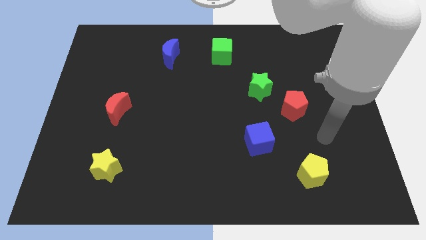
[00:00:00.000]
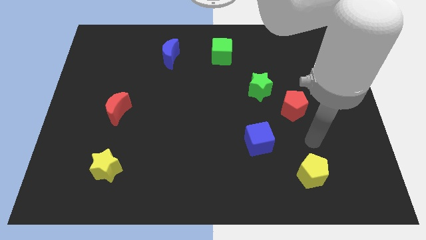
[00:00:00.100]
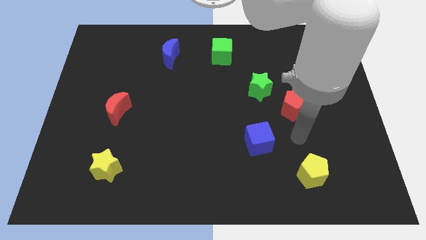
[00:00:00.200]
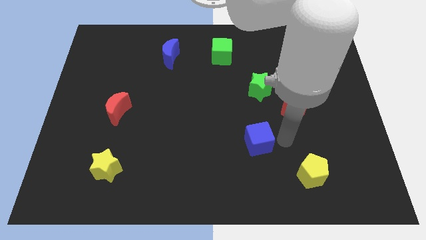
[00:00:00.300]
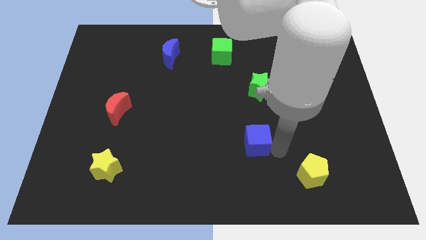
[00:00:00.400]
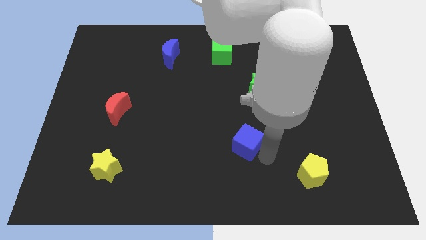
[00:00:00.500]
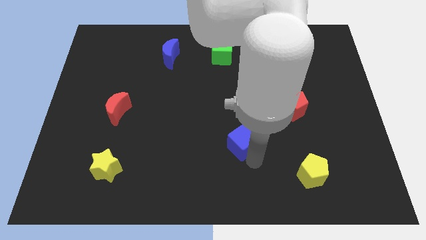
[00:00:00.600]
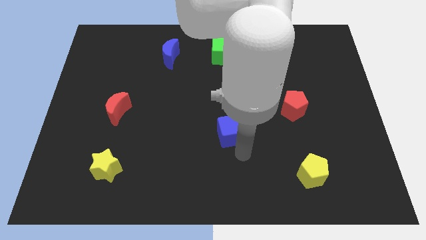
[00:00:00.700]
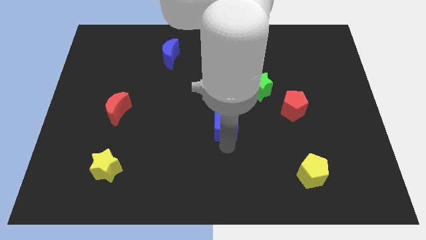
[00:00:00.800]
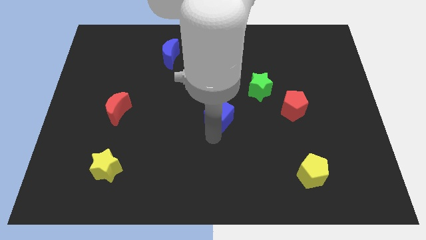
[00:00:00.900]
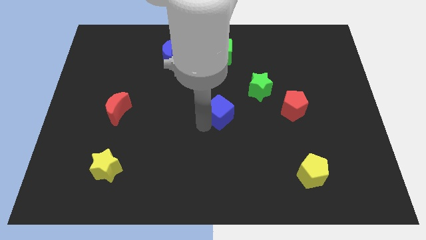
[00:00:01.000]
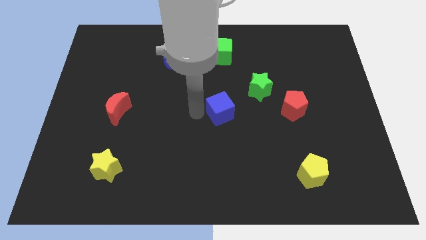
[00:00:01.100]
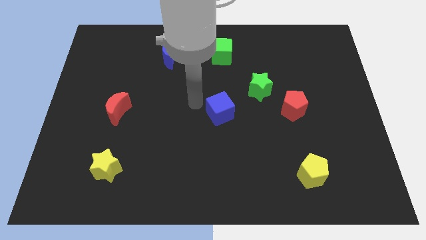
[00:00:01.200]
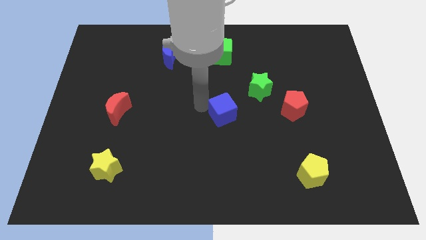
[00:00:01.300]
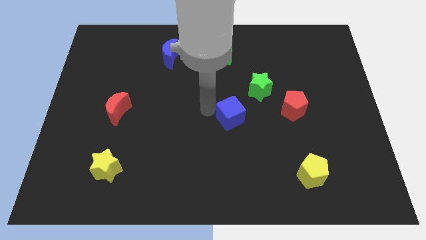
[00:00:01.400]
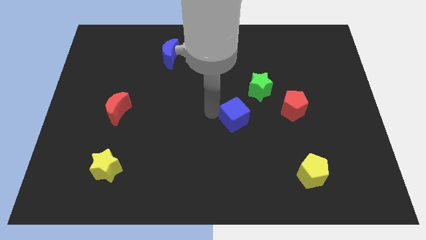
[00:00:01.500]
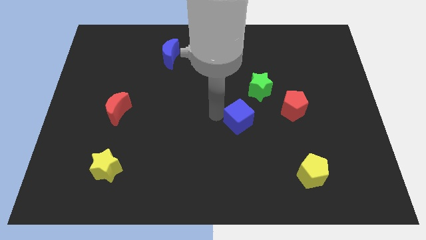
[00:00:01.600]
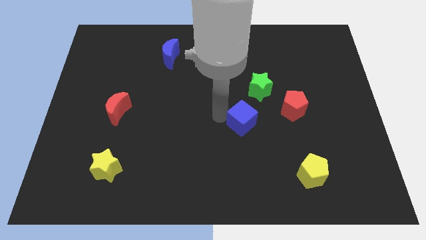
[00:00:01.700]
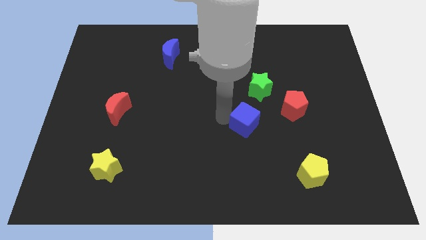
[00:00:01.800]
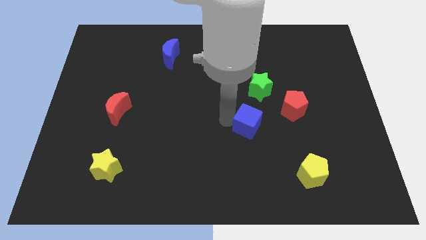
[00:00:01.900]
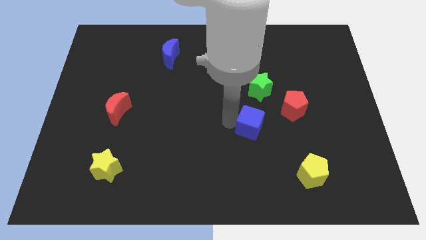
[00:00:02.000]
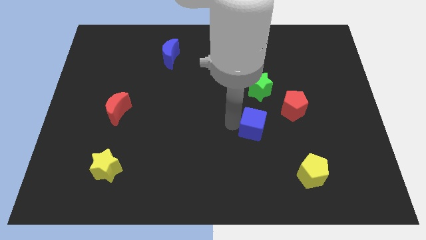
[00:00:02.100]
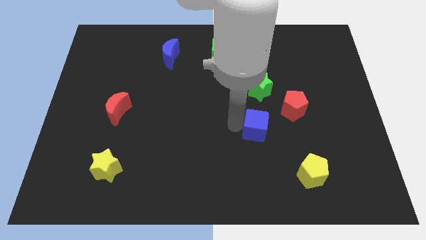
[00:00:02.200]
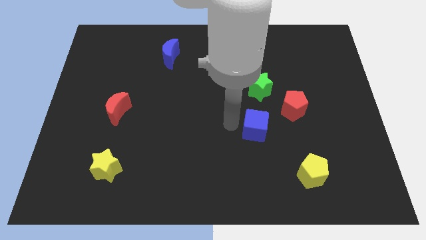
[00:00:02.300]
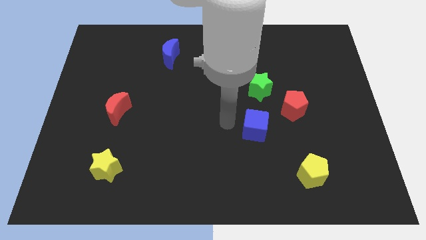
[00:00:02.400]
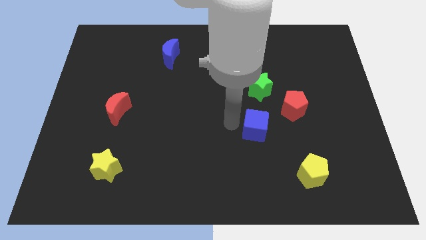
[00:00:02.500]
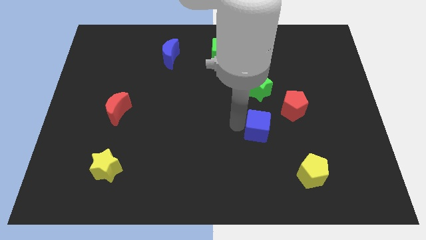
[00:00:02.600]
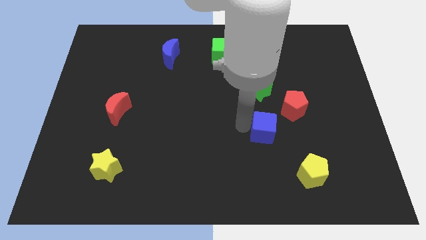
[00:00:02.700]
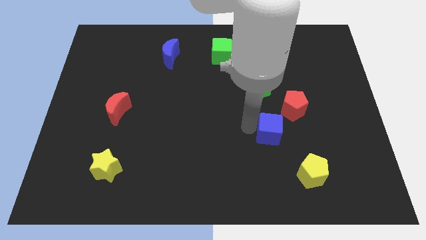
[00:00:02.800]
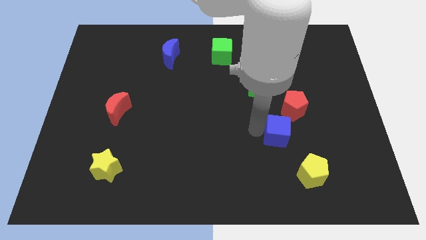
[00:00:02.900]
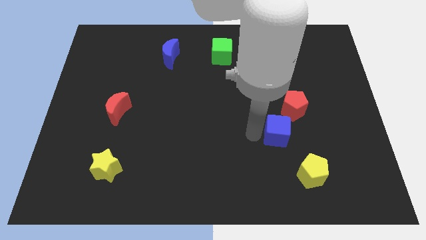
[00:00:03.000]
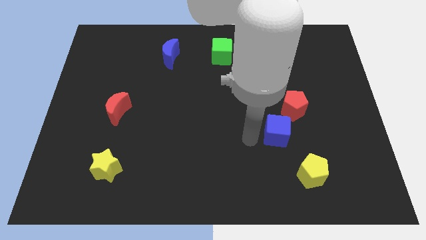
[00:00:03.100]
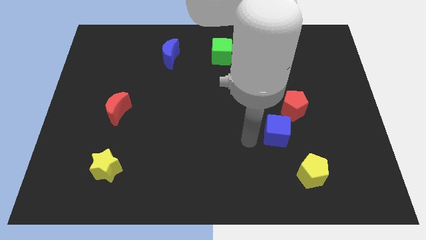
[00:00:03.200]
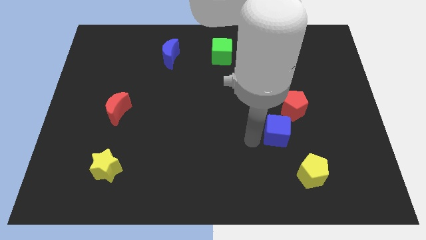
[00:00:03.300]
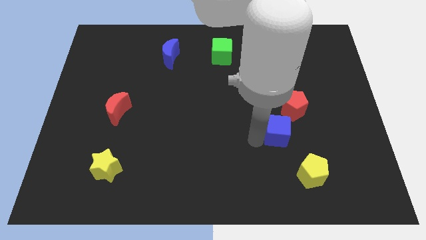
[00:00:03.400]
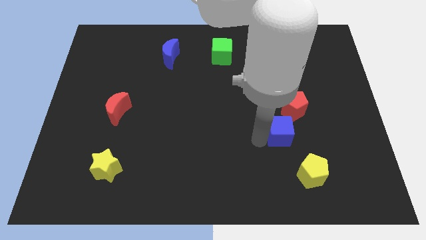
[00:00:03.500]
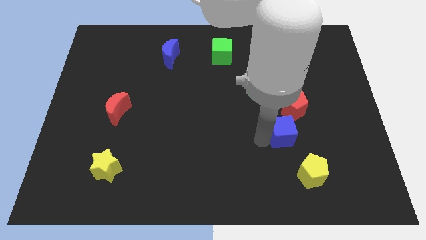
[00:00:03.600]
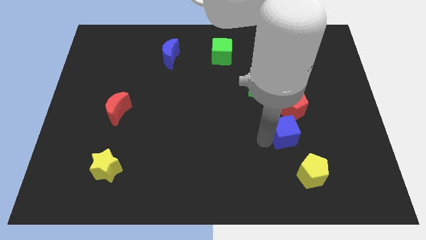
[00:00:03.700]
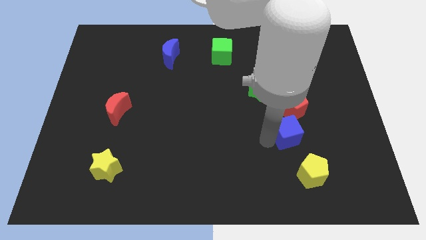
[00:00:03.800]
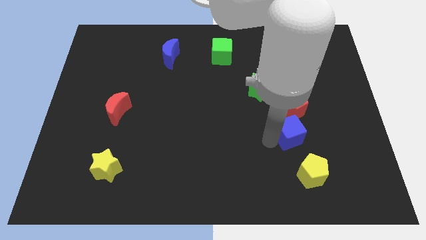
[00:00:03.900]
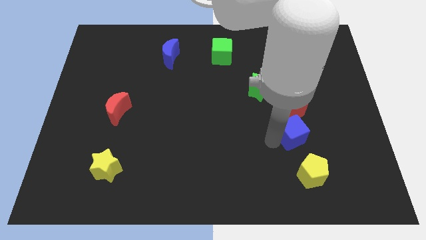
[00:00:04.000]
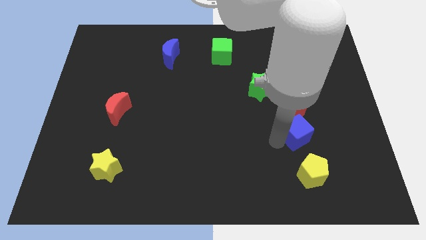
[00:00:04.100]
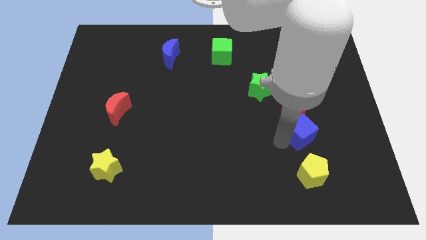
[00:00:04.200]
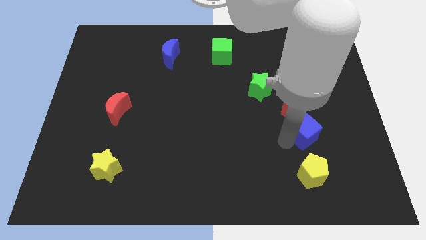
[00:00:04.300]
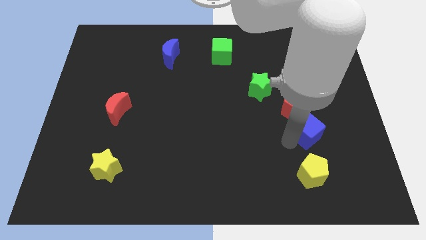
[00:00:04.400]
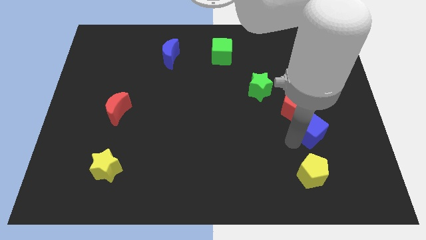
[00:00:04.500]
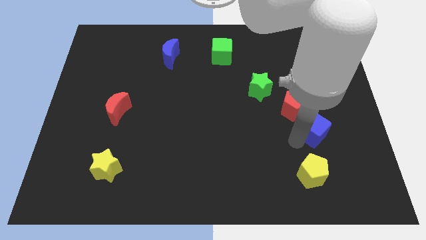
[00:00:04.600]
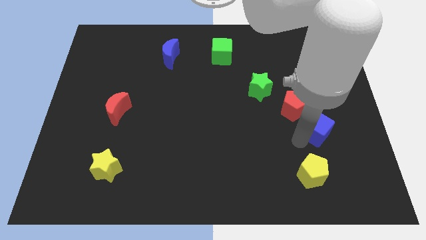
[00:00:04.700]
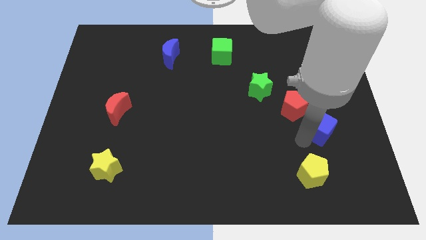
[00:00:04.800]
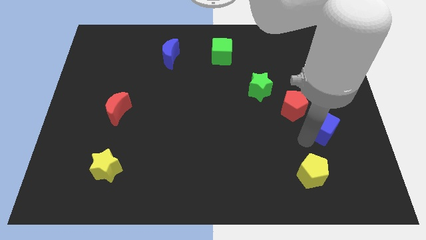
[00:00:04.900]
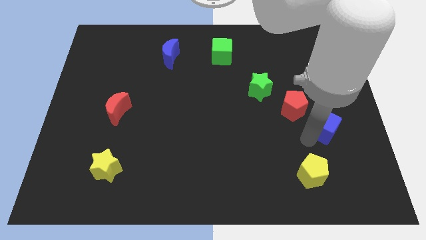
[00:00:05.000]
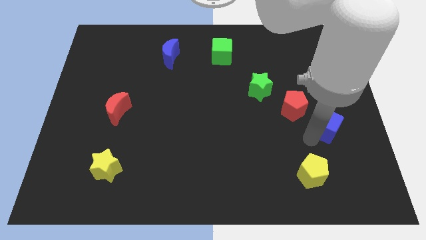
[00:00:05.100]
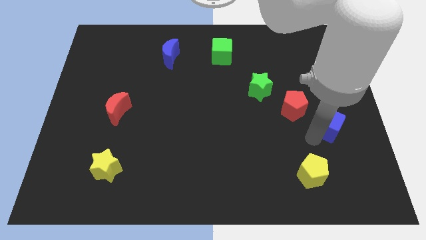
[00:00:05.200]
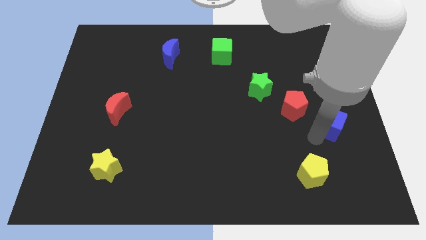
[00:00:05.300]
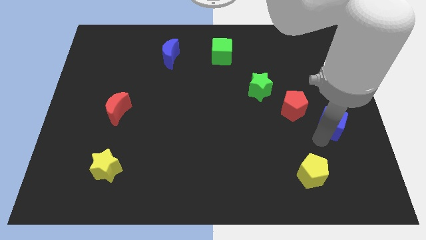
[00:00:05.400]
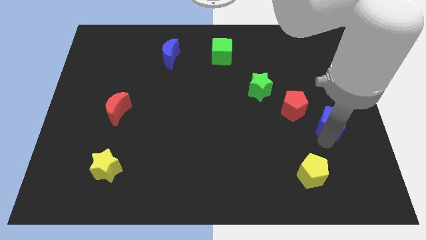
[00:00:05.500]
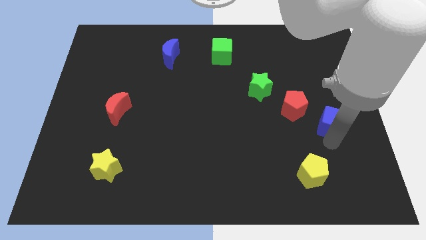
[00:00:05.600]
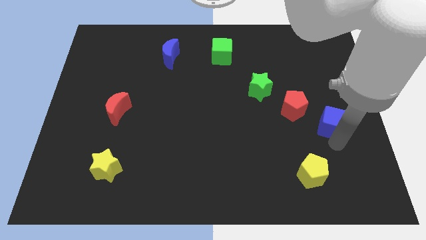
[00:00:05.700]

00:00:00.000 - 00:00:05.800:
push the blue cube to the right side

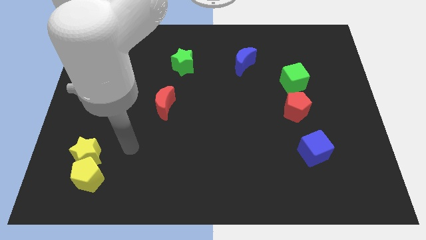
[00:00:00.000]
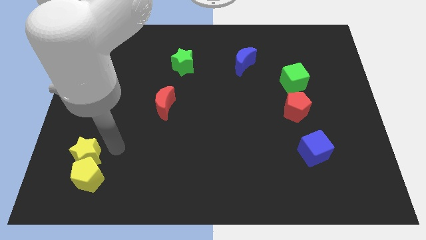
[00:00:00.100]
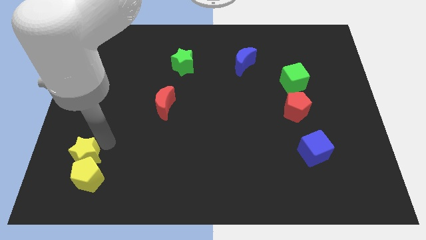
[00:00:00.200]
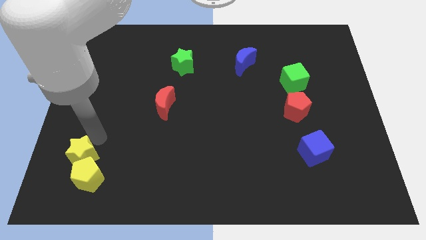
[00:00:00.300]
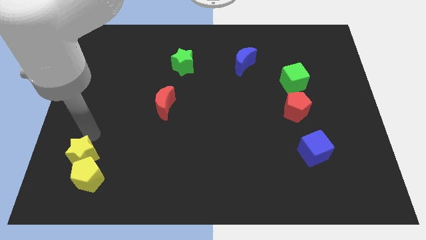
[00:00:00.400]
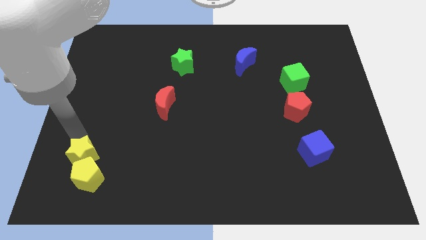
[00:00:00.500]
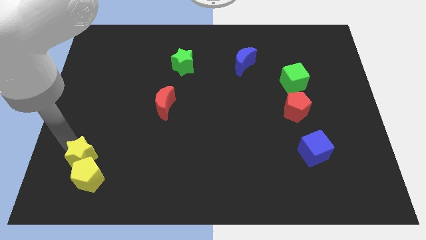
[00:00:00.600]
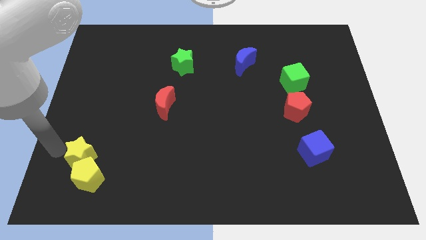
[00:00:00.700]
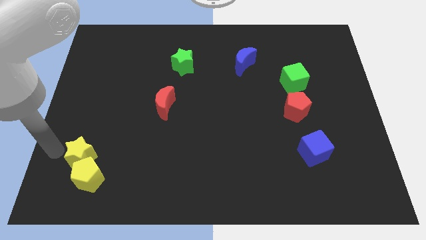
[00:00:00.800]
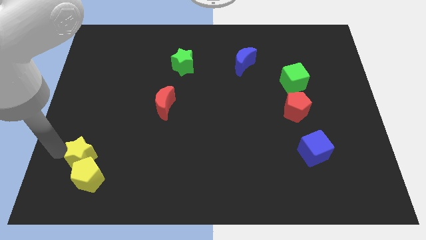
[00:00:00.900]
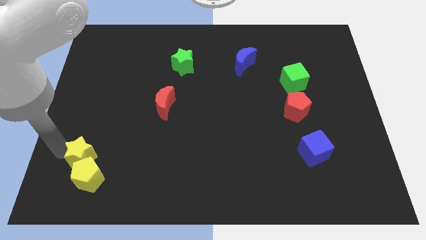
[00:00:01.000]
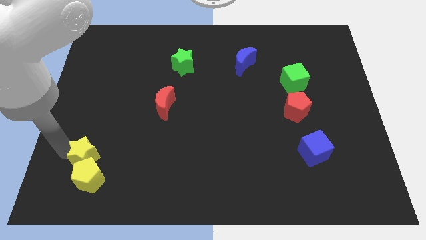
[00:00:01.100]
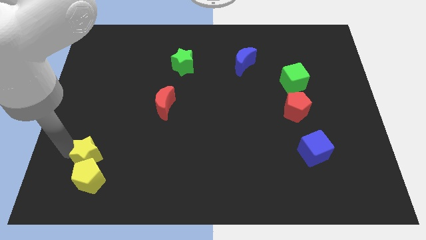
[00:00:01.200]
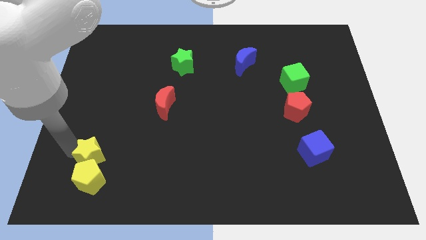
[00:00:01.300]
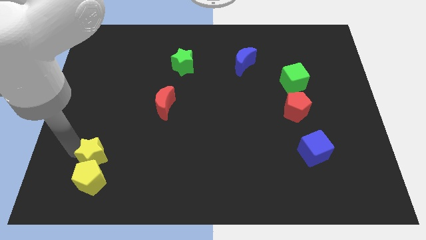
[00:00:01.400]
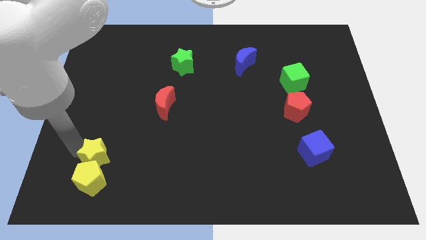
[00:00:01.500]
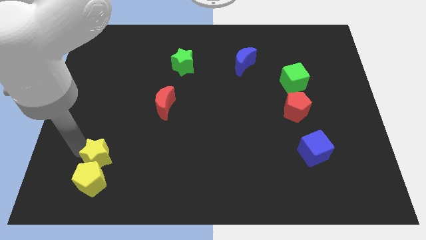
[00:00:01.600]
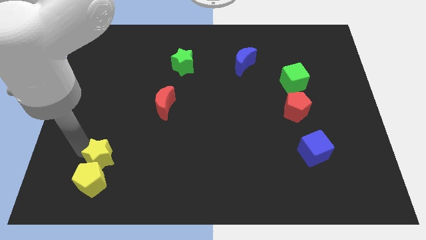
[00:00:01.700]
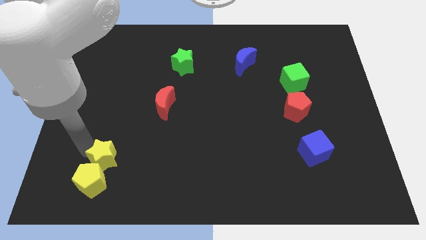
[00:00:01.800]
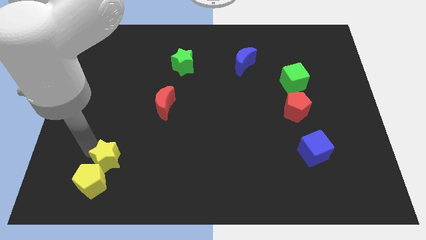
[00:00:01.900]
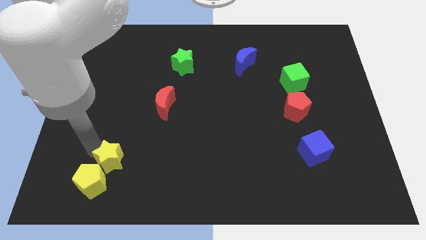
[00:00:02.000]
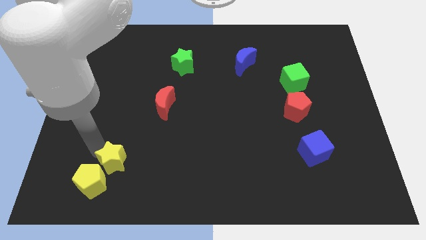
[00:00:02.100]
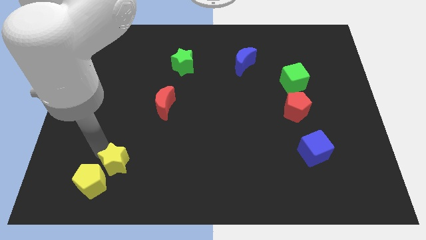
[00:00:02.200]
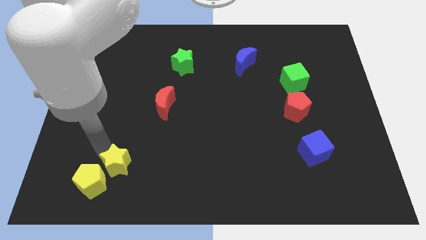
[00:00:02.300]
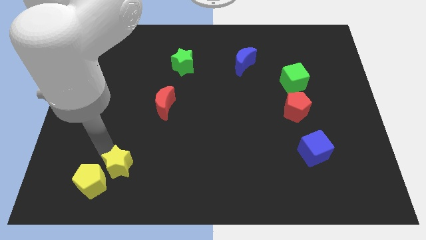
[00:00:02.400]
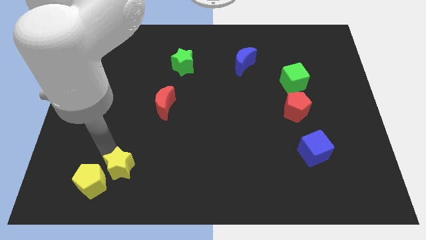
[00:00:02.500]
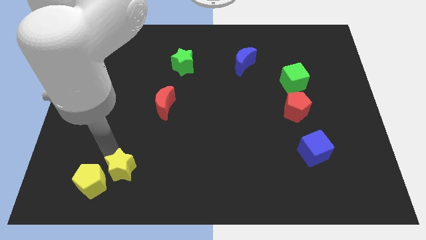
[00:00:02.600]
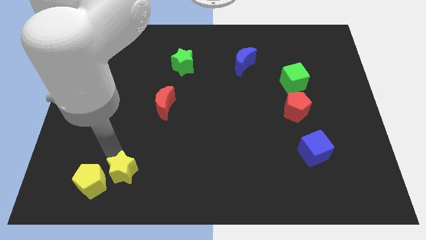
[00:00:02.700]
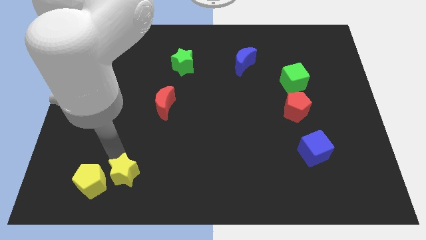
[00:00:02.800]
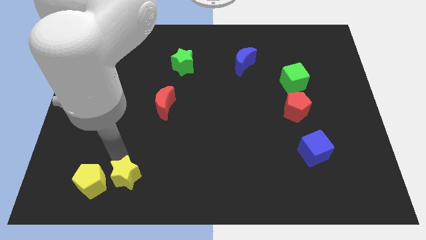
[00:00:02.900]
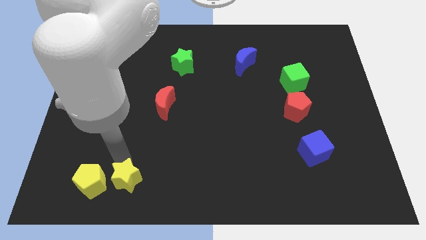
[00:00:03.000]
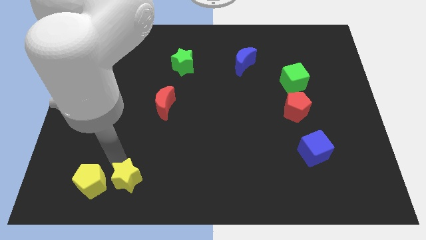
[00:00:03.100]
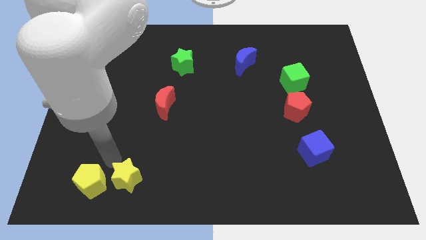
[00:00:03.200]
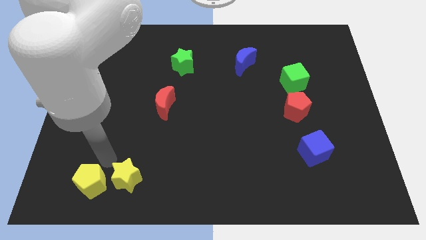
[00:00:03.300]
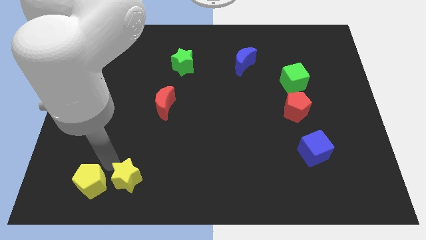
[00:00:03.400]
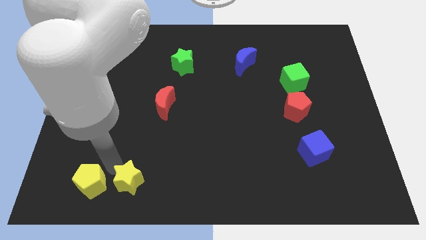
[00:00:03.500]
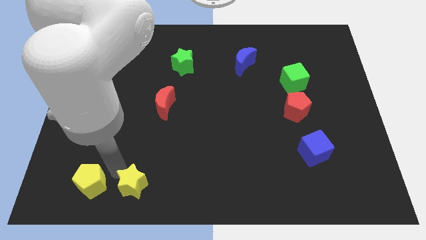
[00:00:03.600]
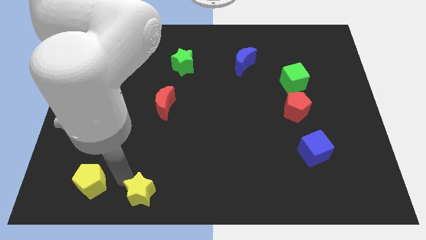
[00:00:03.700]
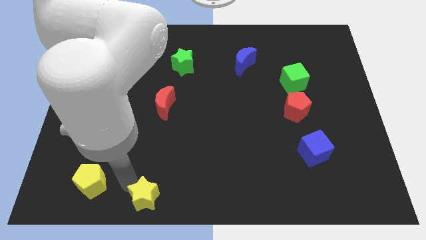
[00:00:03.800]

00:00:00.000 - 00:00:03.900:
slide the yellow star to the bottom
